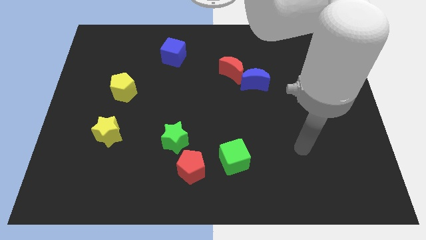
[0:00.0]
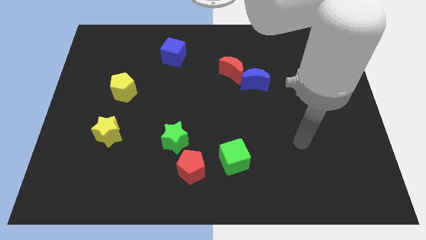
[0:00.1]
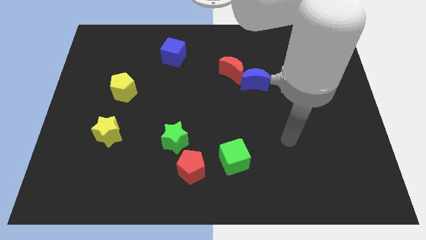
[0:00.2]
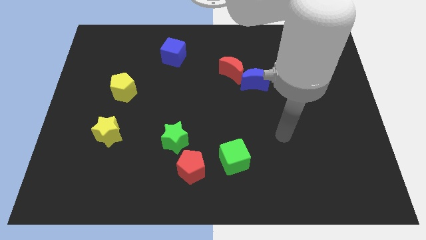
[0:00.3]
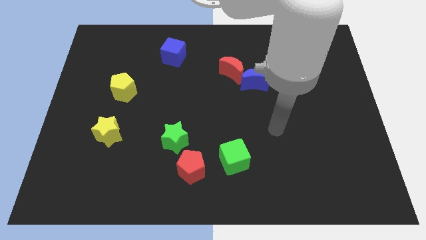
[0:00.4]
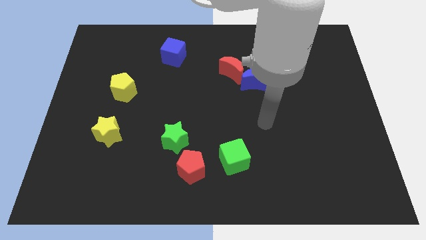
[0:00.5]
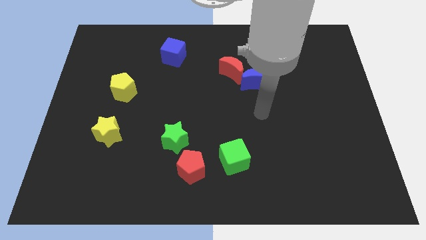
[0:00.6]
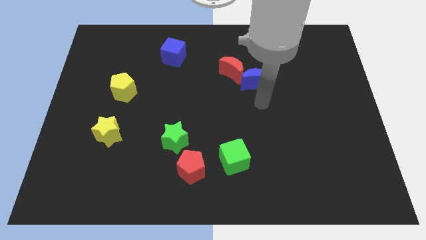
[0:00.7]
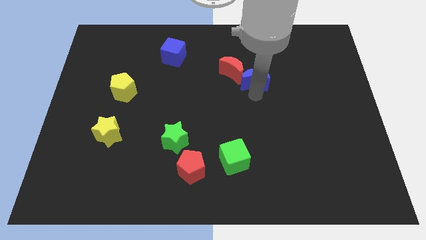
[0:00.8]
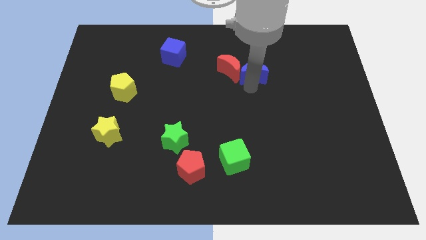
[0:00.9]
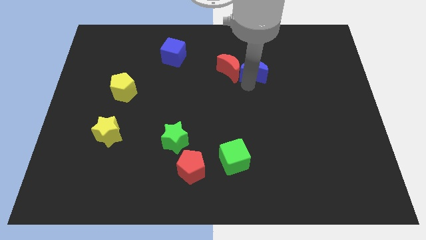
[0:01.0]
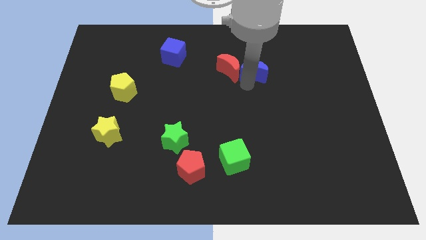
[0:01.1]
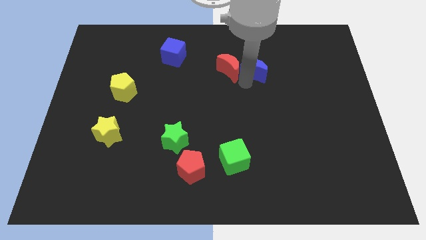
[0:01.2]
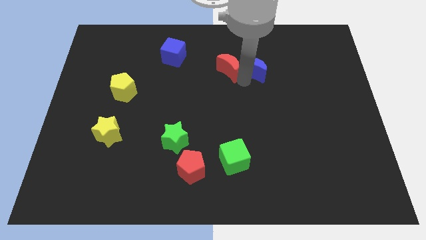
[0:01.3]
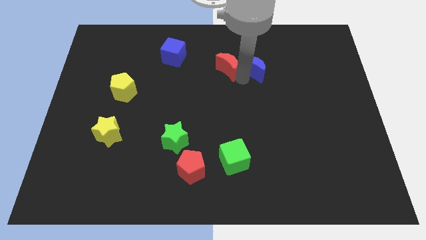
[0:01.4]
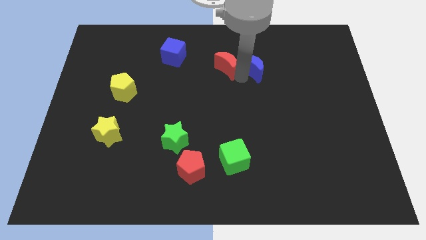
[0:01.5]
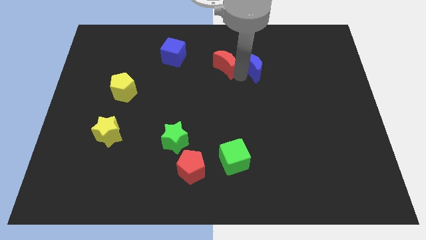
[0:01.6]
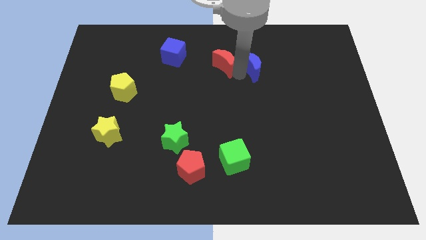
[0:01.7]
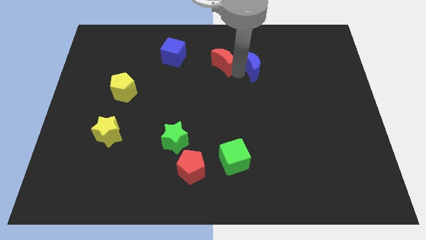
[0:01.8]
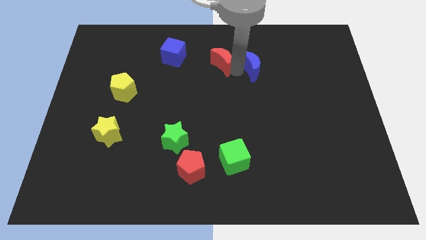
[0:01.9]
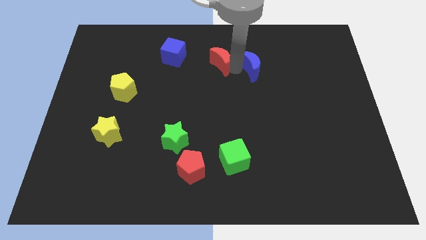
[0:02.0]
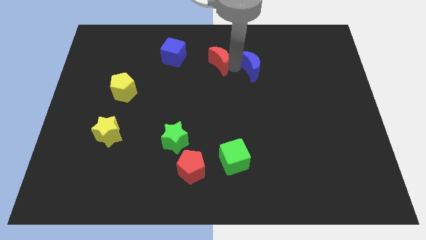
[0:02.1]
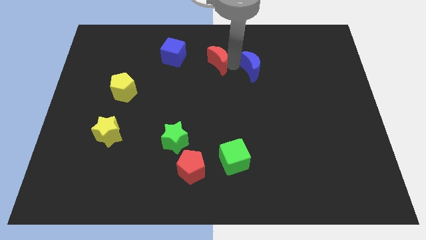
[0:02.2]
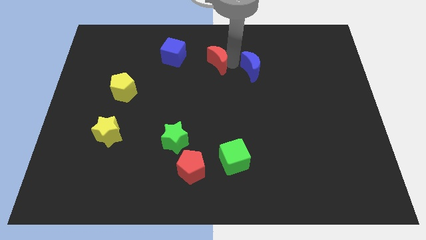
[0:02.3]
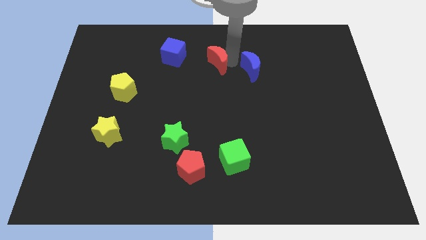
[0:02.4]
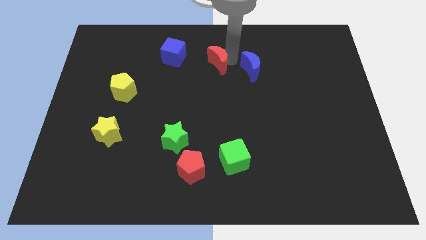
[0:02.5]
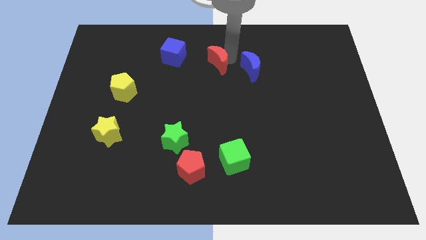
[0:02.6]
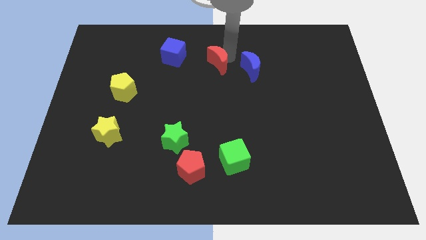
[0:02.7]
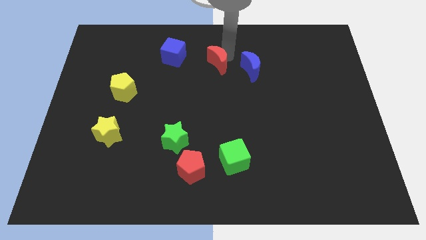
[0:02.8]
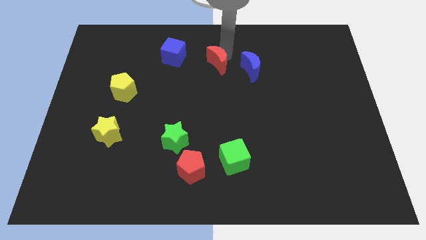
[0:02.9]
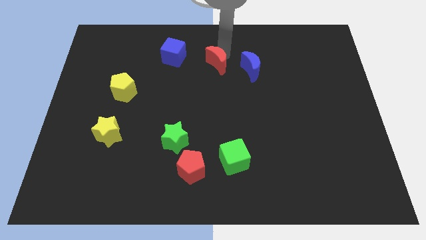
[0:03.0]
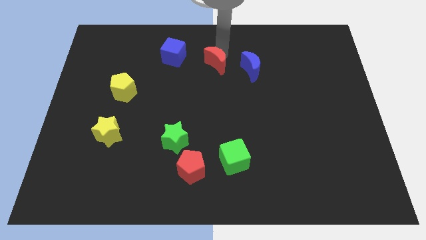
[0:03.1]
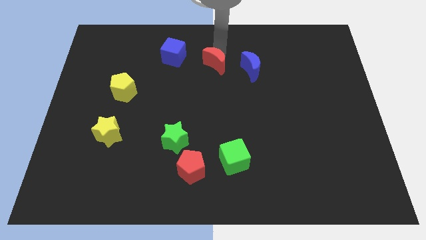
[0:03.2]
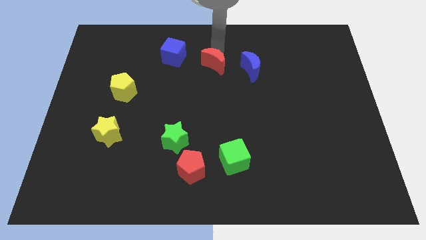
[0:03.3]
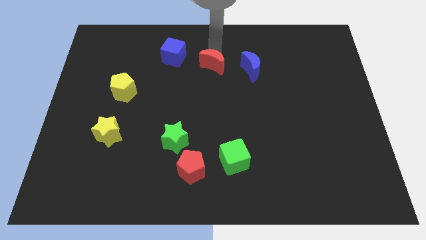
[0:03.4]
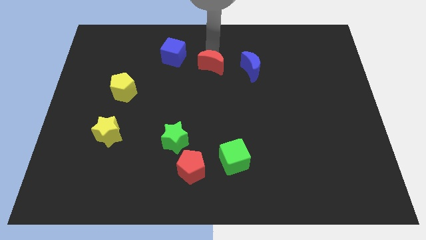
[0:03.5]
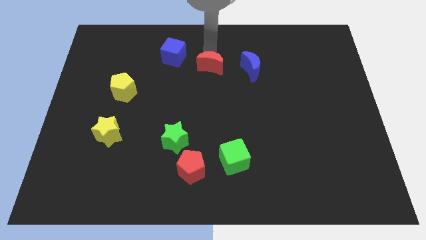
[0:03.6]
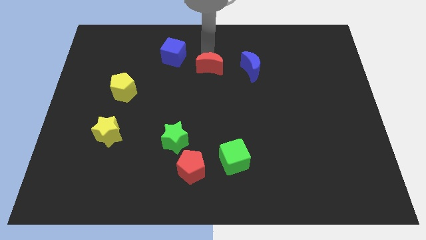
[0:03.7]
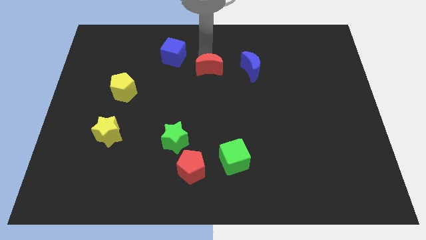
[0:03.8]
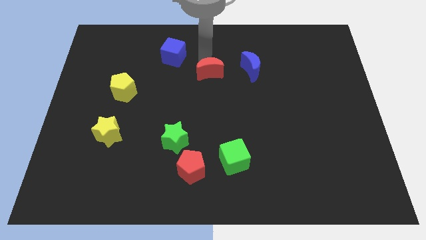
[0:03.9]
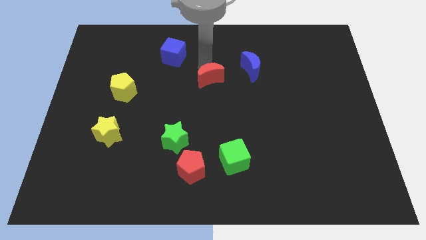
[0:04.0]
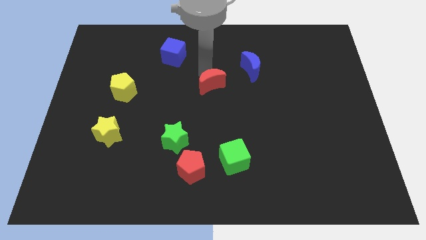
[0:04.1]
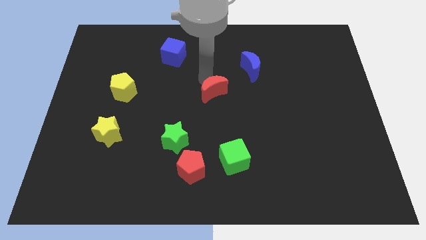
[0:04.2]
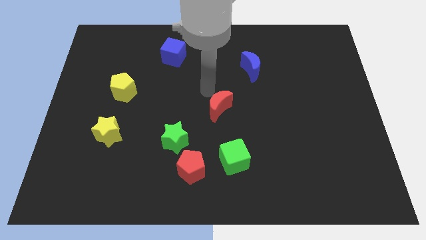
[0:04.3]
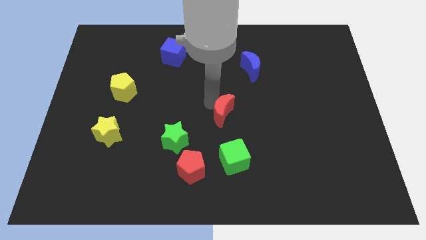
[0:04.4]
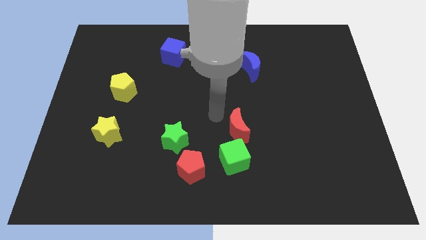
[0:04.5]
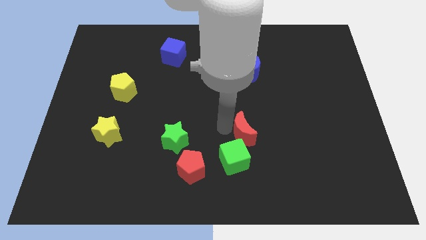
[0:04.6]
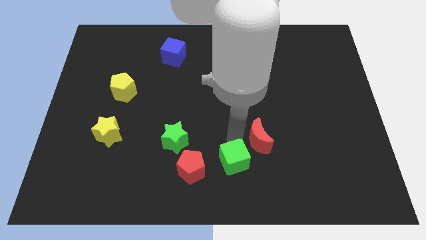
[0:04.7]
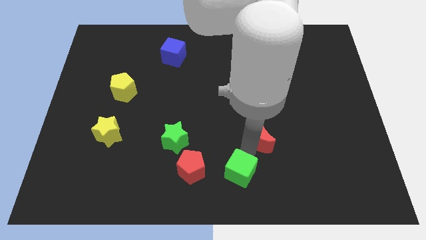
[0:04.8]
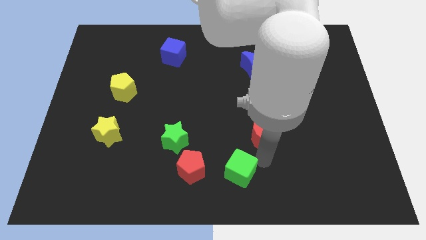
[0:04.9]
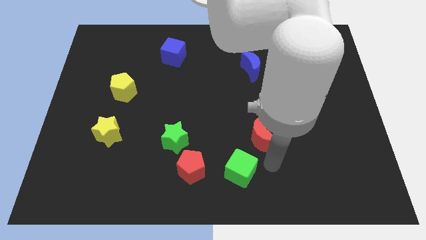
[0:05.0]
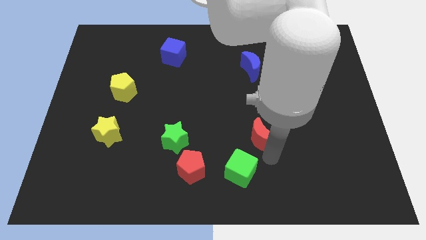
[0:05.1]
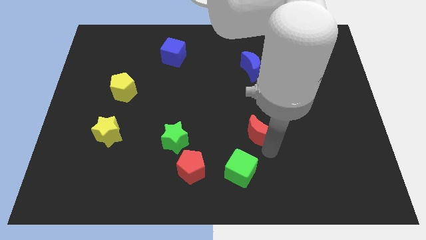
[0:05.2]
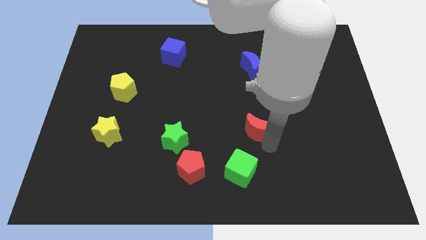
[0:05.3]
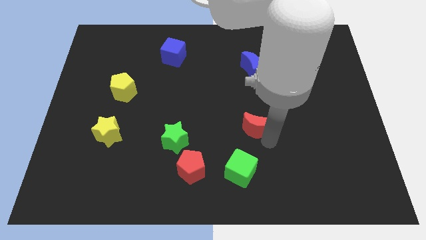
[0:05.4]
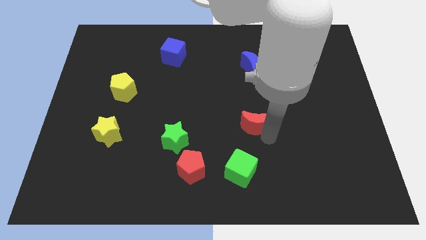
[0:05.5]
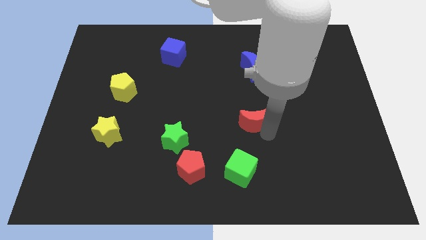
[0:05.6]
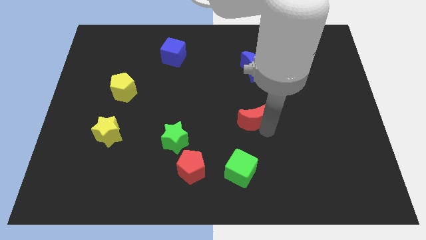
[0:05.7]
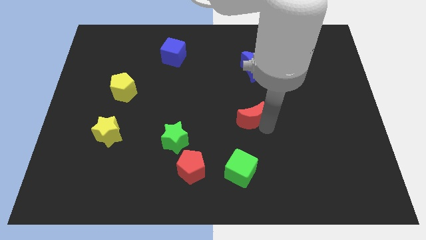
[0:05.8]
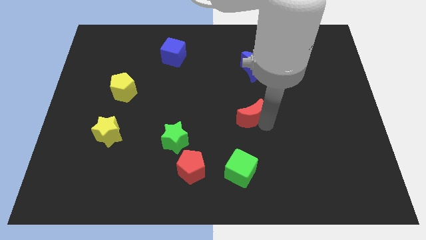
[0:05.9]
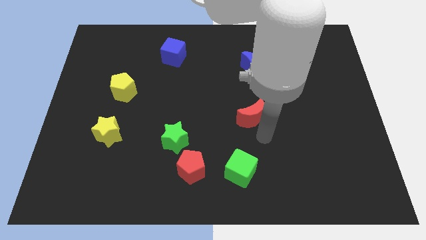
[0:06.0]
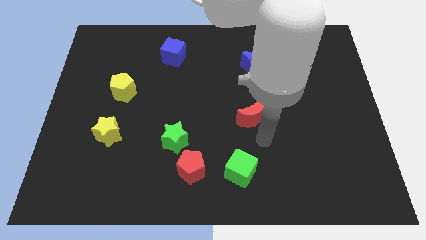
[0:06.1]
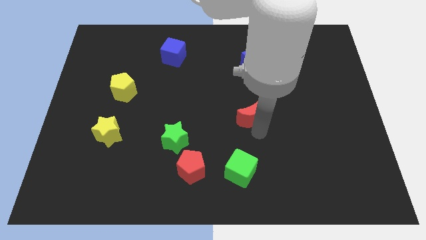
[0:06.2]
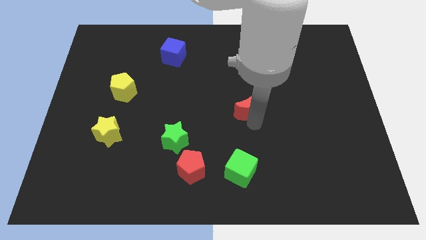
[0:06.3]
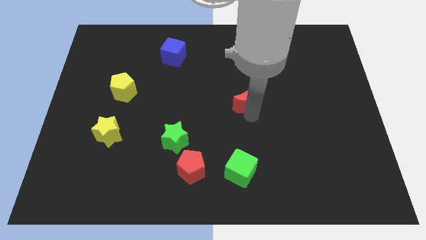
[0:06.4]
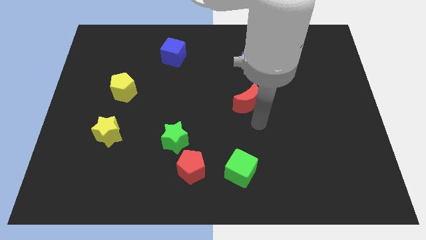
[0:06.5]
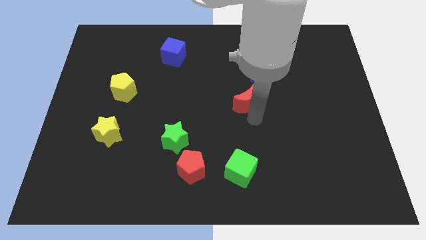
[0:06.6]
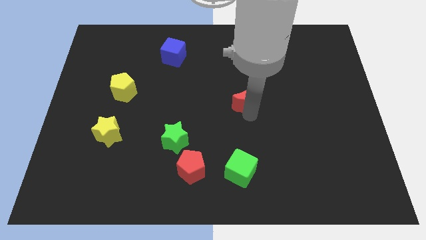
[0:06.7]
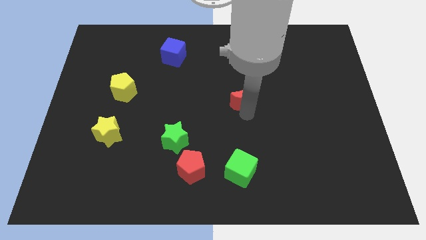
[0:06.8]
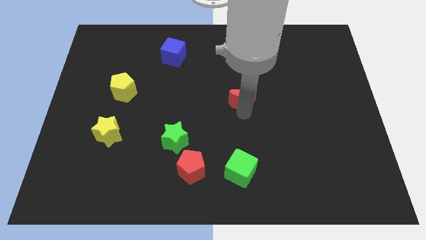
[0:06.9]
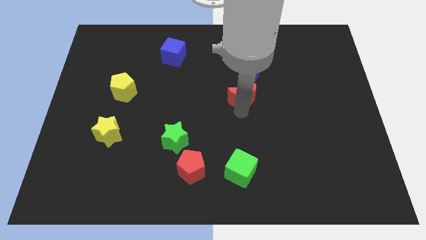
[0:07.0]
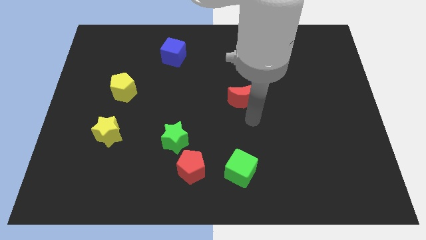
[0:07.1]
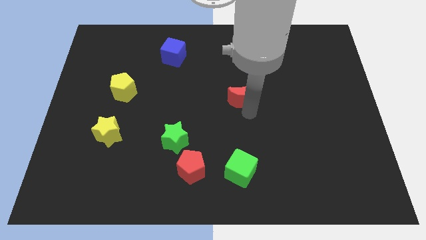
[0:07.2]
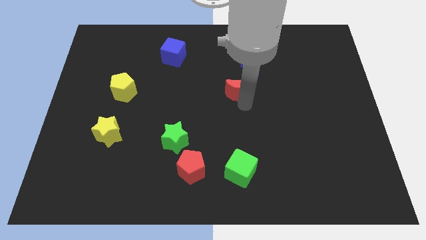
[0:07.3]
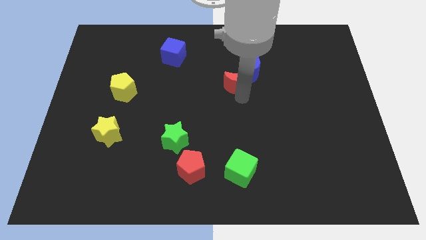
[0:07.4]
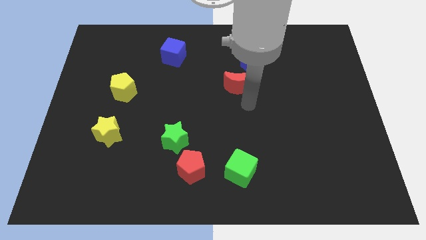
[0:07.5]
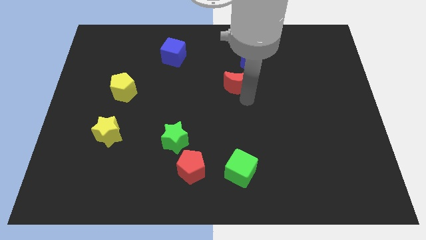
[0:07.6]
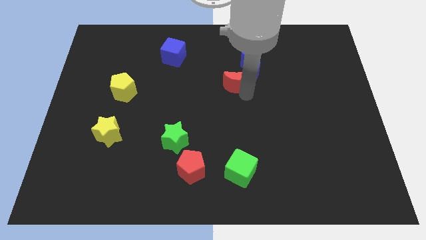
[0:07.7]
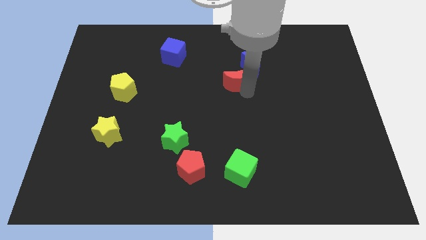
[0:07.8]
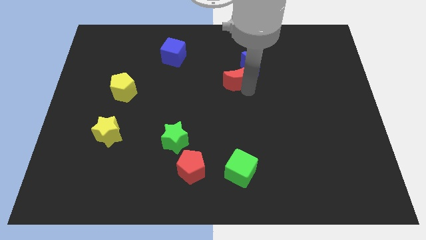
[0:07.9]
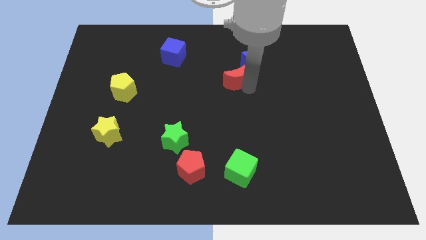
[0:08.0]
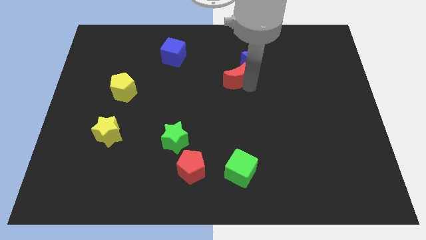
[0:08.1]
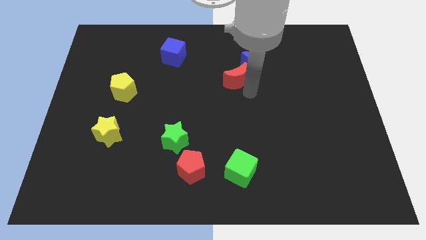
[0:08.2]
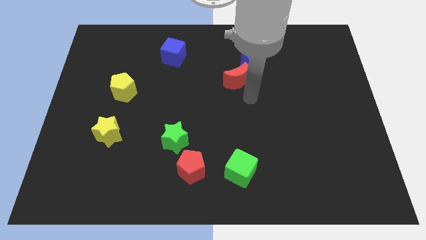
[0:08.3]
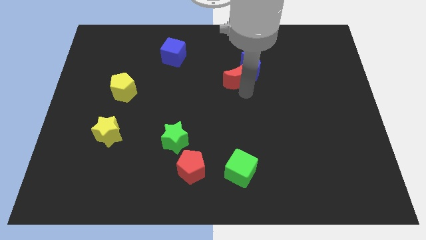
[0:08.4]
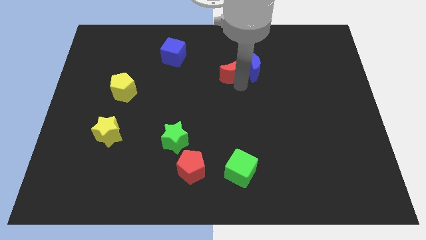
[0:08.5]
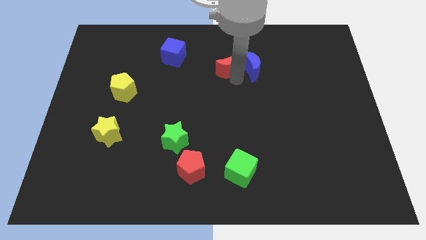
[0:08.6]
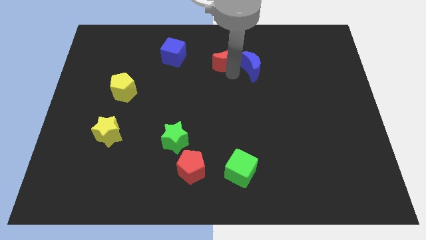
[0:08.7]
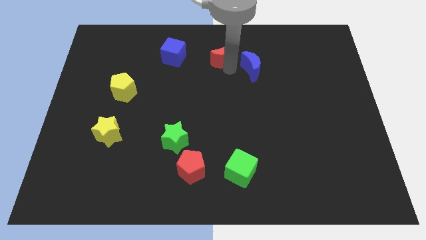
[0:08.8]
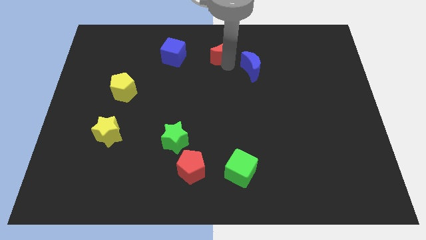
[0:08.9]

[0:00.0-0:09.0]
push the red moon to the towards your base
